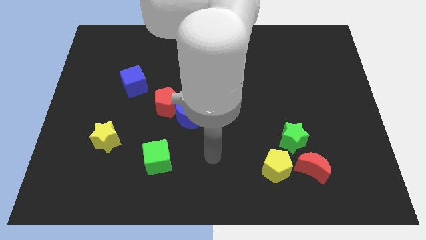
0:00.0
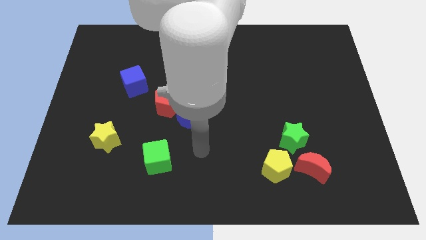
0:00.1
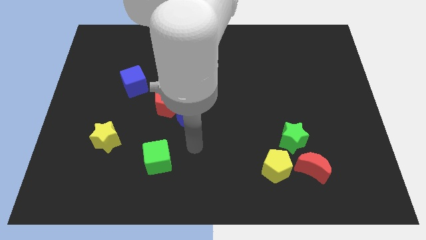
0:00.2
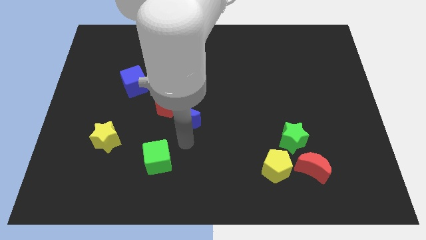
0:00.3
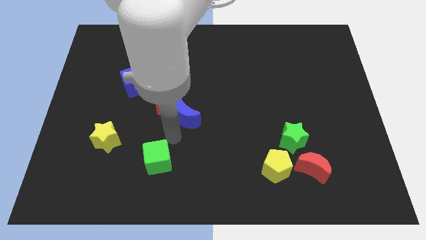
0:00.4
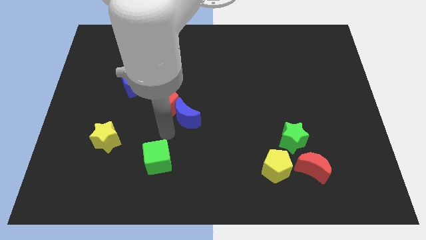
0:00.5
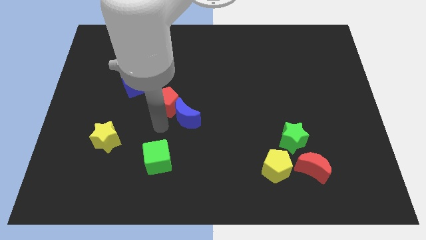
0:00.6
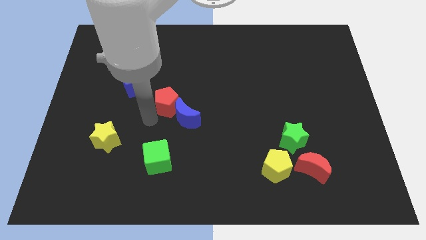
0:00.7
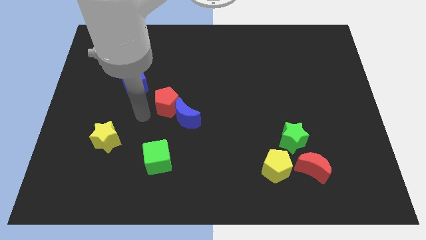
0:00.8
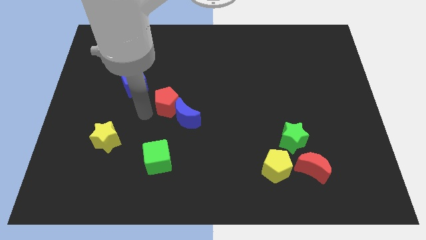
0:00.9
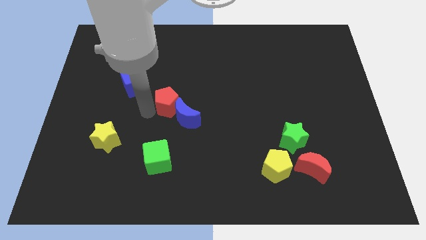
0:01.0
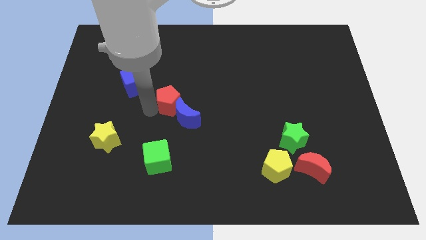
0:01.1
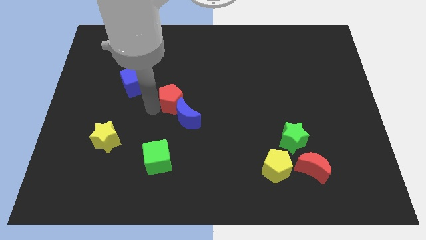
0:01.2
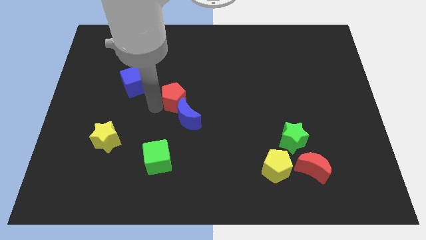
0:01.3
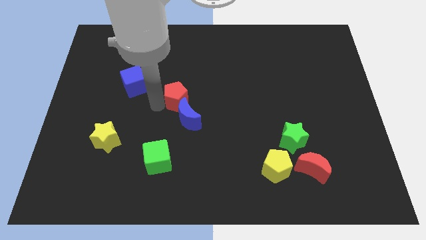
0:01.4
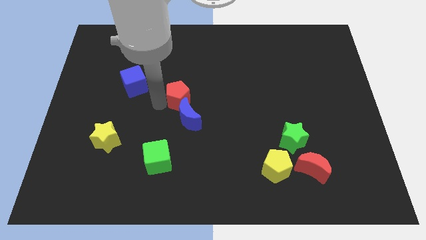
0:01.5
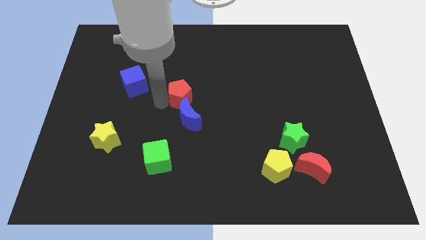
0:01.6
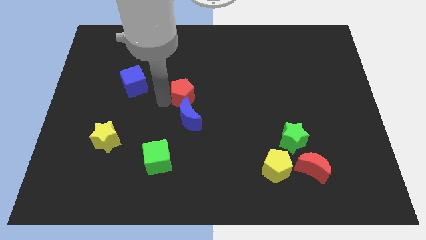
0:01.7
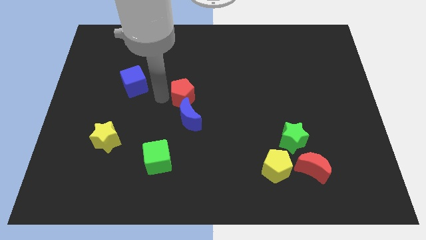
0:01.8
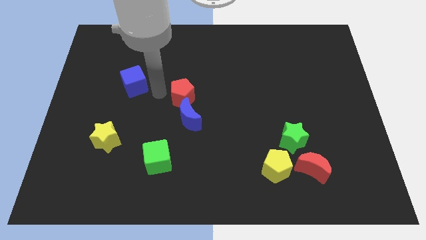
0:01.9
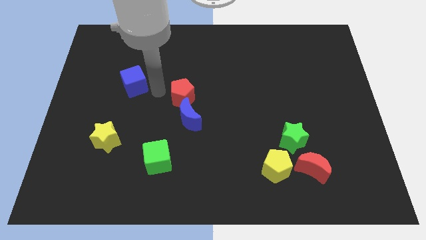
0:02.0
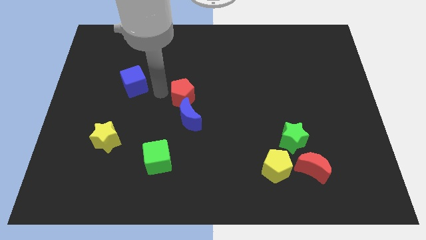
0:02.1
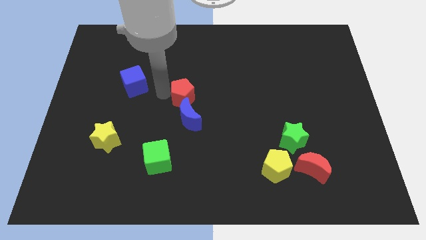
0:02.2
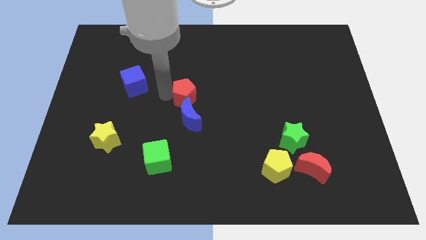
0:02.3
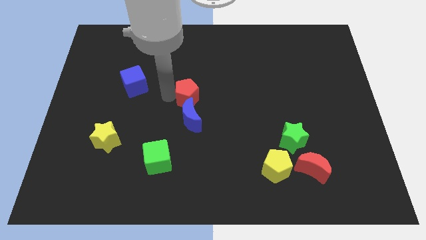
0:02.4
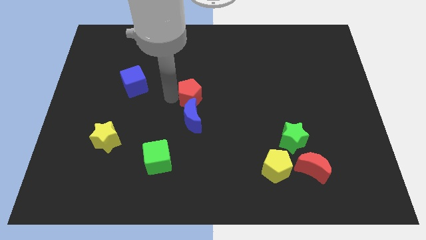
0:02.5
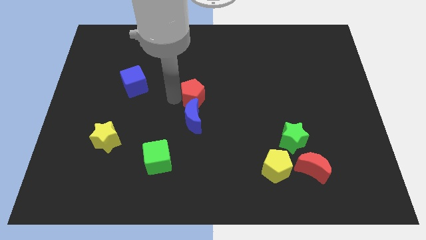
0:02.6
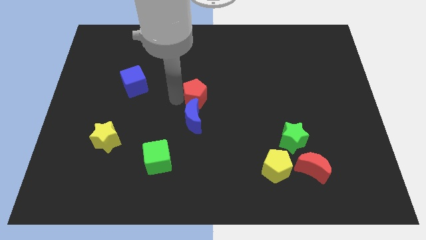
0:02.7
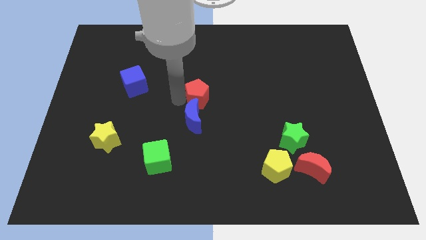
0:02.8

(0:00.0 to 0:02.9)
slightly move the red pentagon to the right

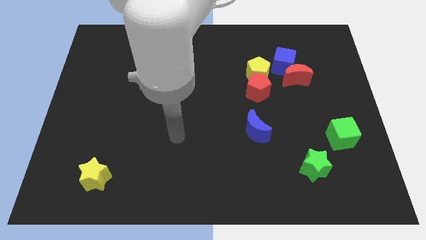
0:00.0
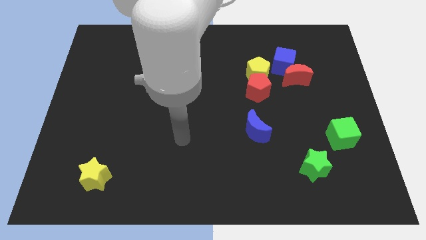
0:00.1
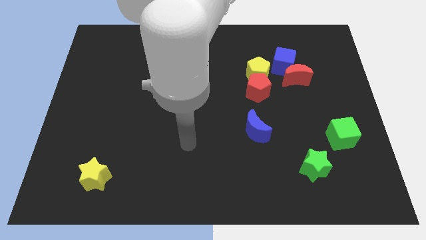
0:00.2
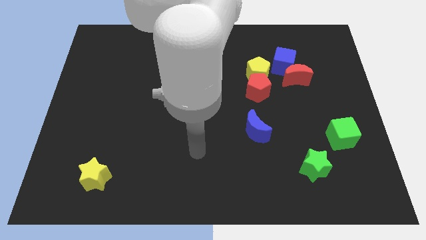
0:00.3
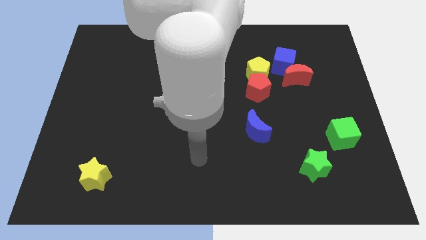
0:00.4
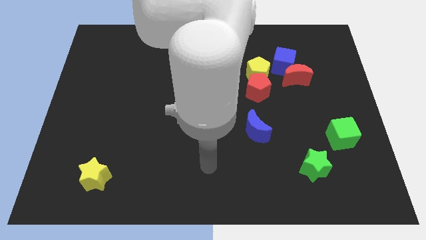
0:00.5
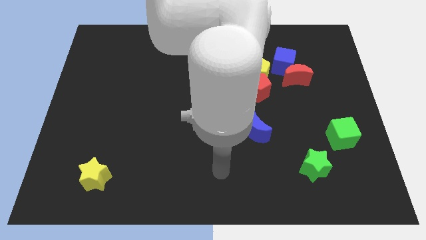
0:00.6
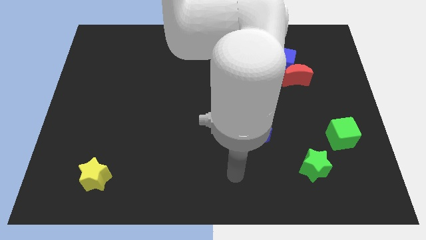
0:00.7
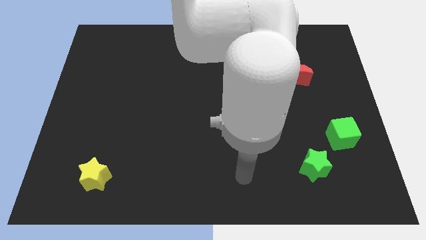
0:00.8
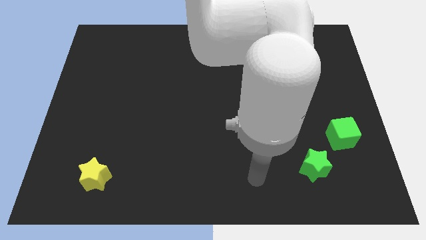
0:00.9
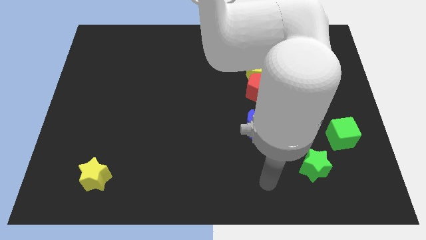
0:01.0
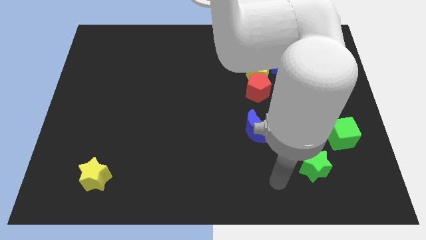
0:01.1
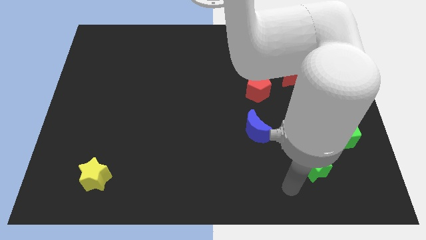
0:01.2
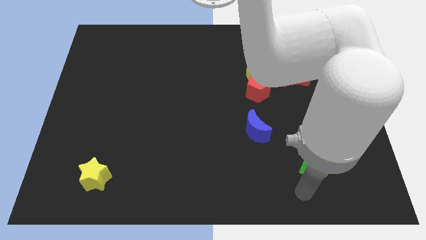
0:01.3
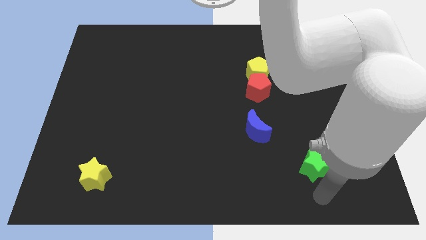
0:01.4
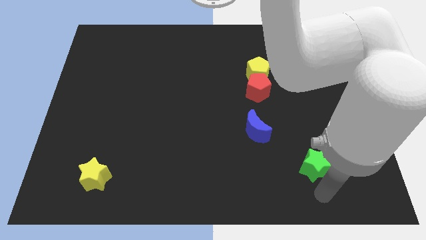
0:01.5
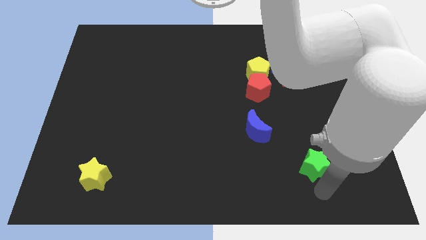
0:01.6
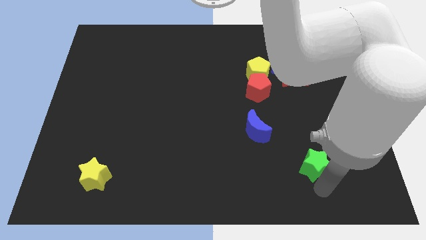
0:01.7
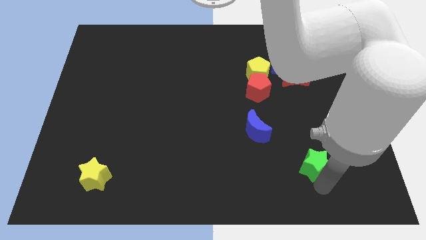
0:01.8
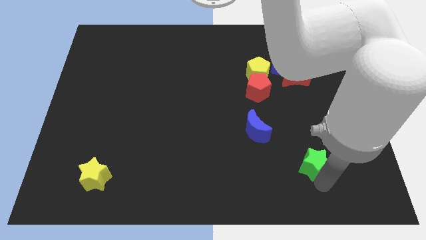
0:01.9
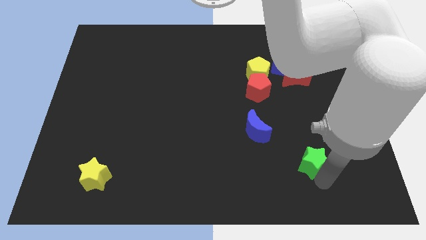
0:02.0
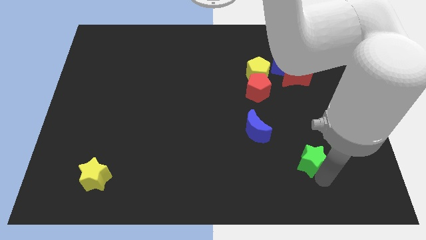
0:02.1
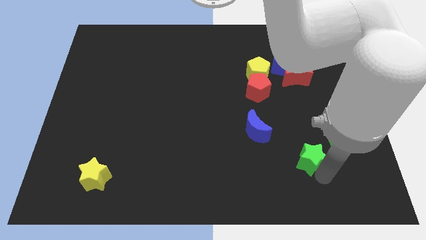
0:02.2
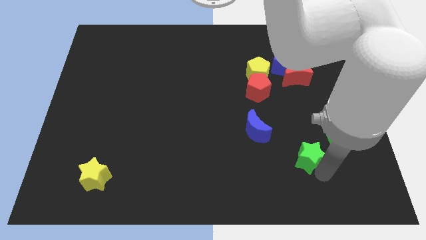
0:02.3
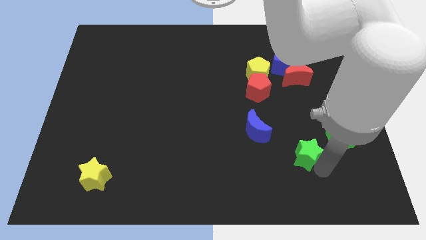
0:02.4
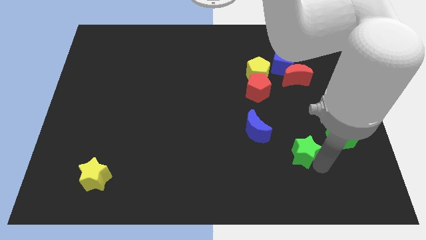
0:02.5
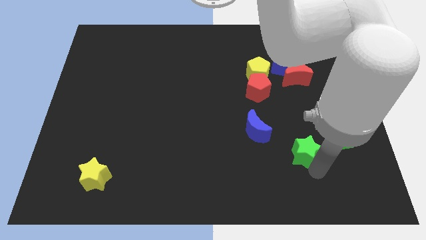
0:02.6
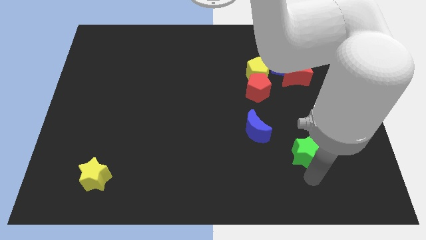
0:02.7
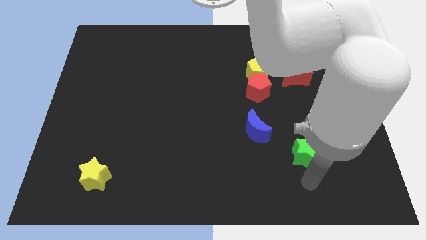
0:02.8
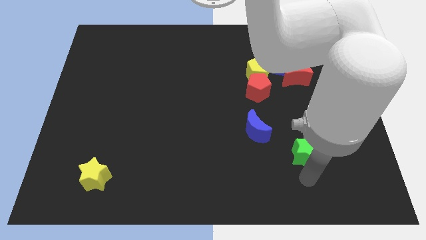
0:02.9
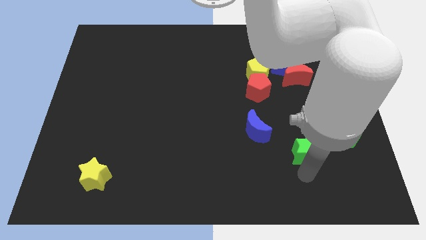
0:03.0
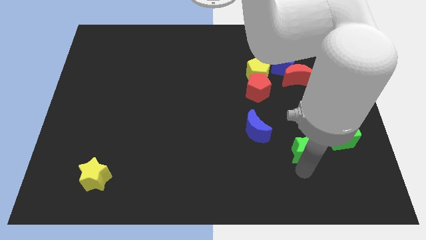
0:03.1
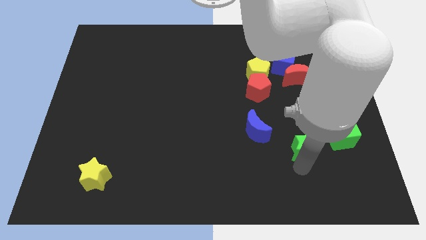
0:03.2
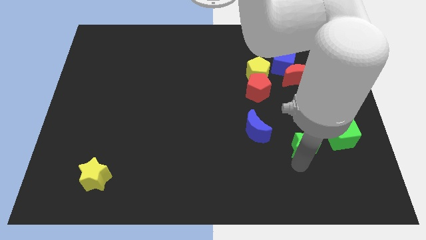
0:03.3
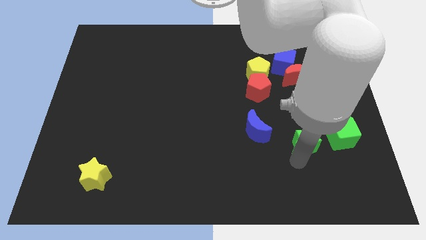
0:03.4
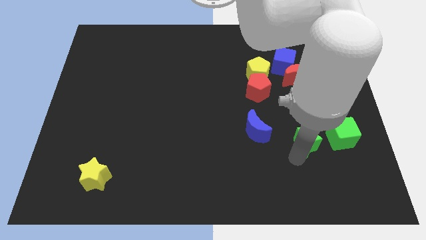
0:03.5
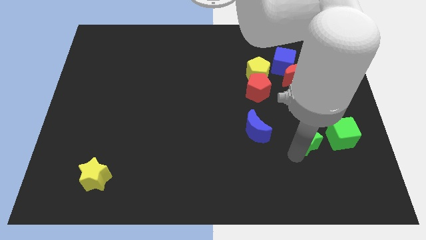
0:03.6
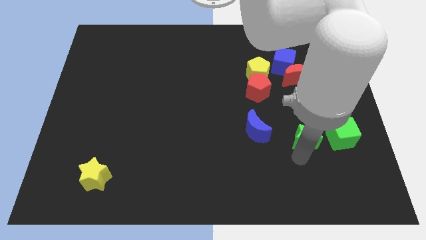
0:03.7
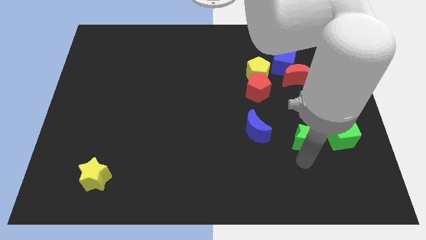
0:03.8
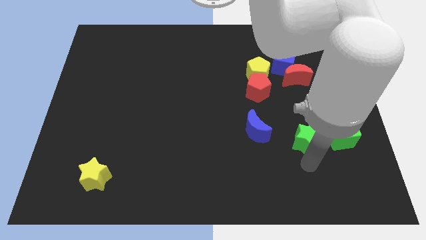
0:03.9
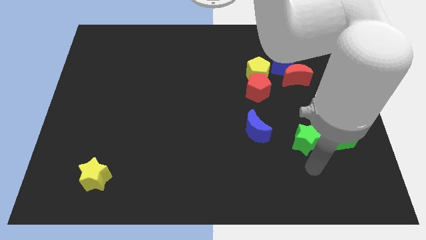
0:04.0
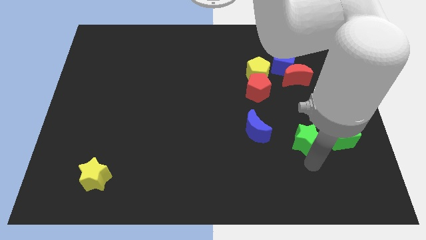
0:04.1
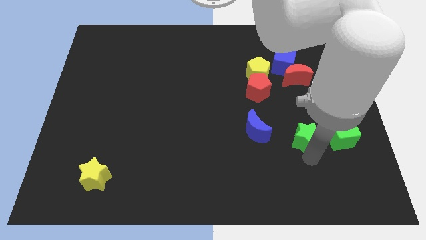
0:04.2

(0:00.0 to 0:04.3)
push the green star slightly upwards

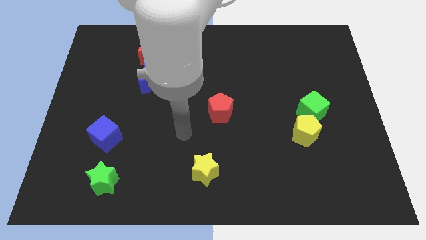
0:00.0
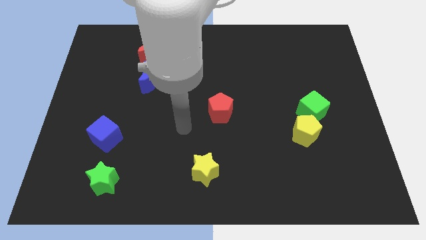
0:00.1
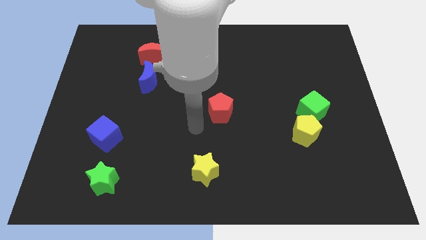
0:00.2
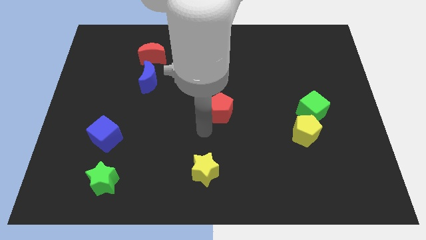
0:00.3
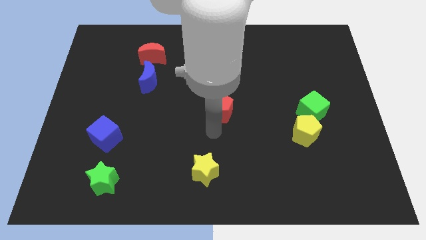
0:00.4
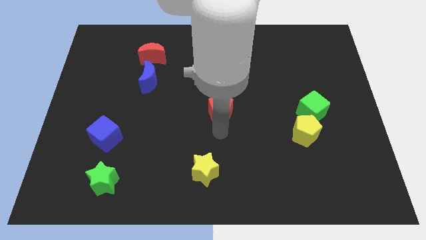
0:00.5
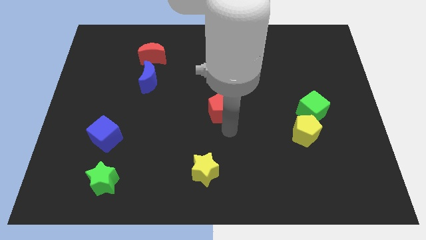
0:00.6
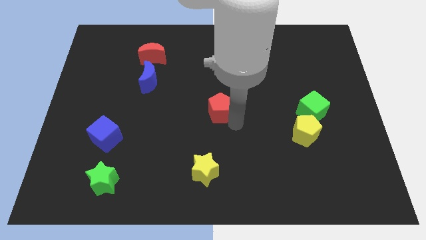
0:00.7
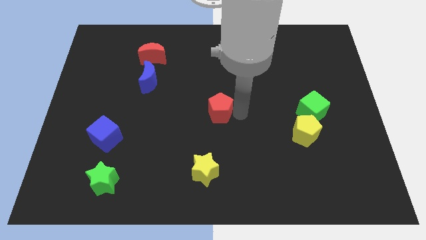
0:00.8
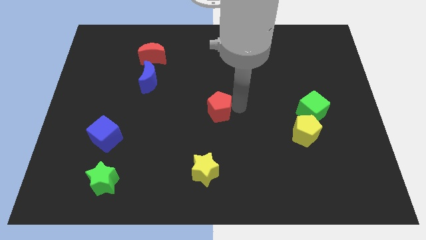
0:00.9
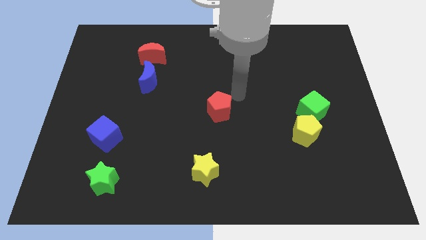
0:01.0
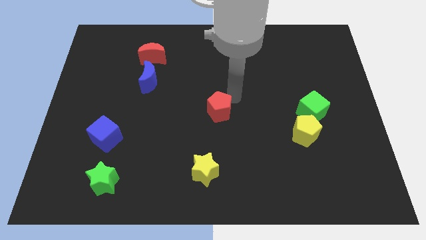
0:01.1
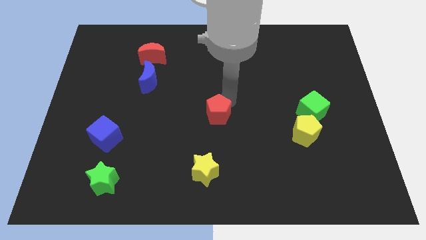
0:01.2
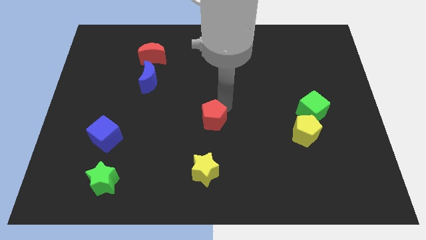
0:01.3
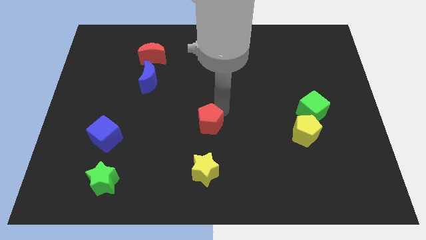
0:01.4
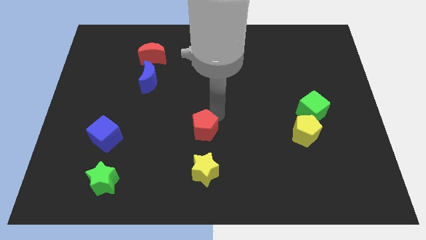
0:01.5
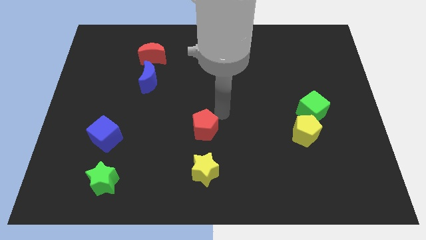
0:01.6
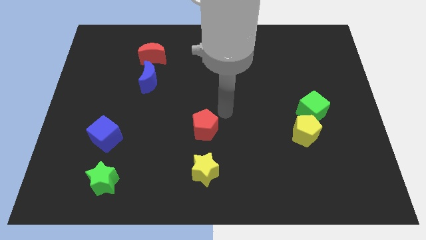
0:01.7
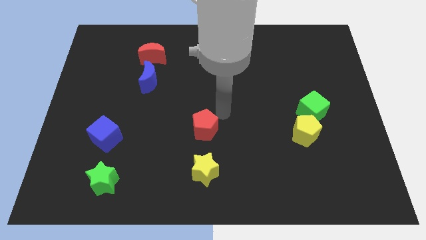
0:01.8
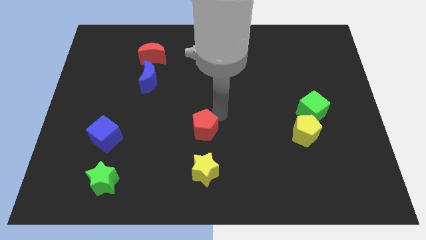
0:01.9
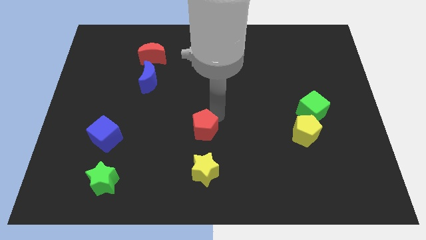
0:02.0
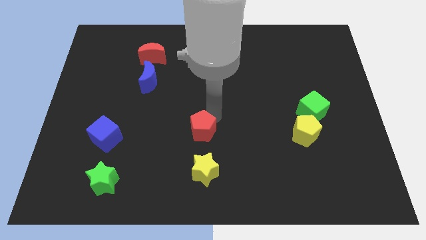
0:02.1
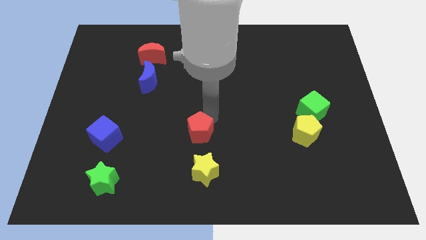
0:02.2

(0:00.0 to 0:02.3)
slide the red pentagon a little bit diagonally downwards and to the left
